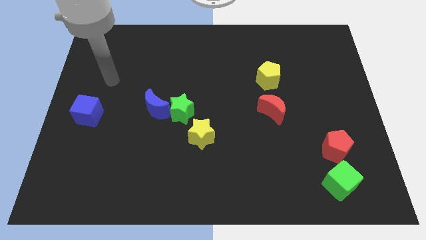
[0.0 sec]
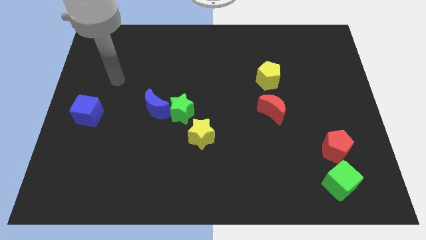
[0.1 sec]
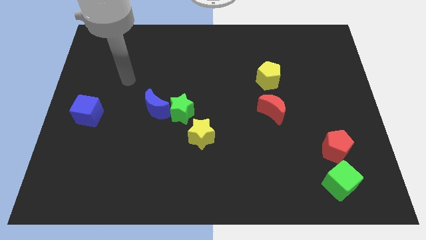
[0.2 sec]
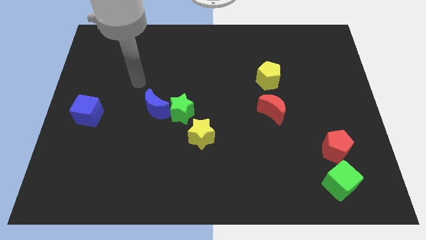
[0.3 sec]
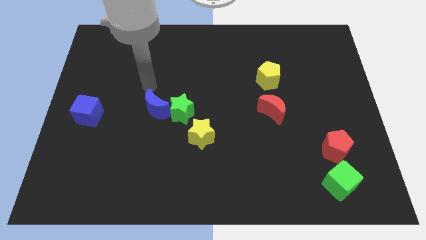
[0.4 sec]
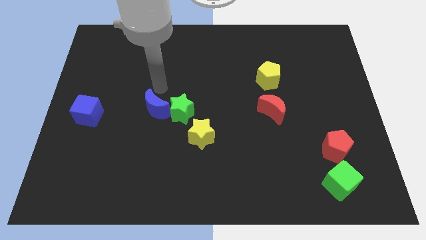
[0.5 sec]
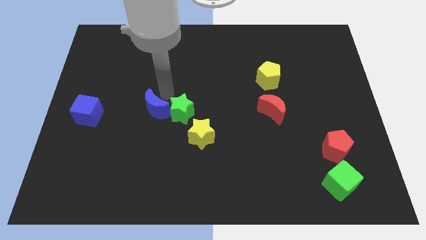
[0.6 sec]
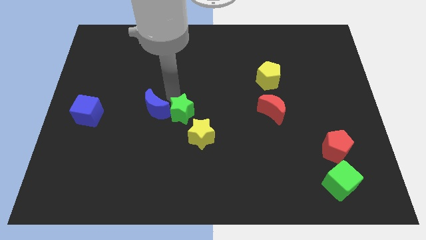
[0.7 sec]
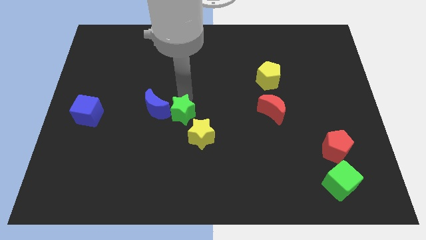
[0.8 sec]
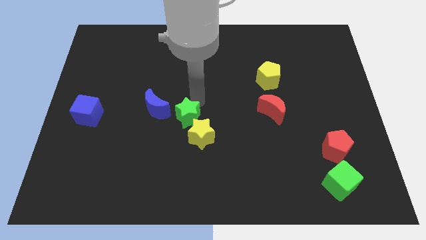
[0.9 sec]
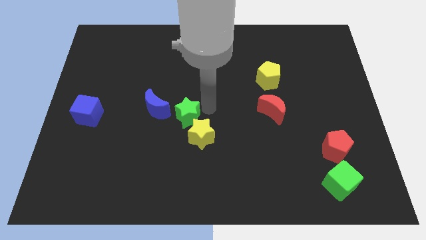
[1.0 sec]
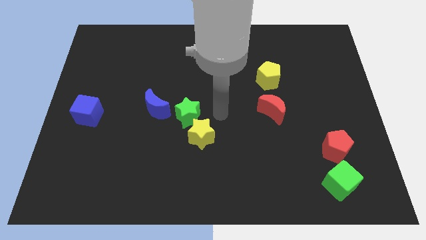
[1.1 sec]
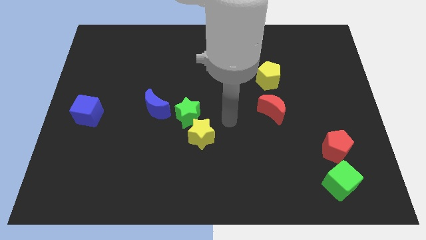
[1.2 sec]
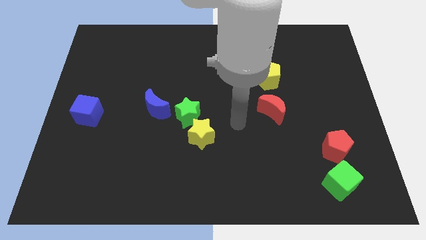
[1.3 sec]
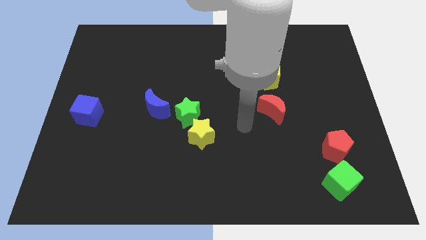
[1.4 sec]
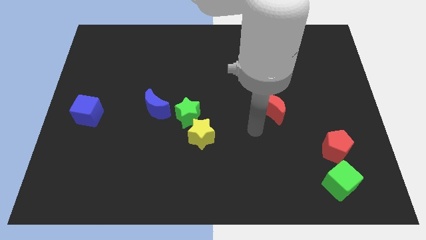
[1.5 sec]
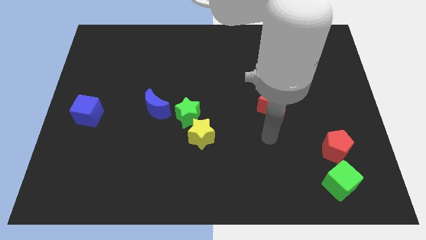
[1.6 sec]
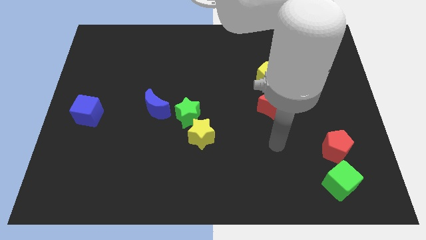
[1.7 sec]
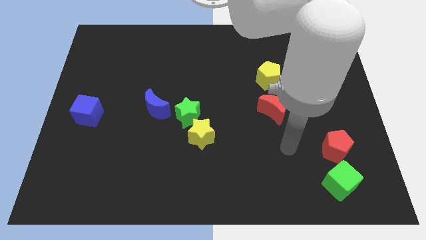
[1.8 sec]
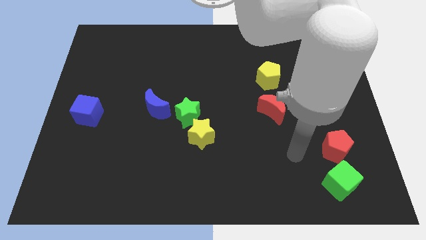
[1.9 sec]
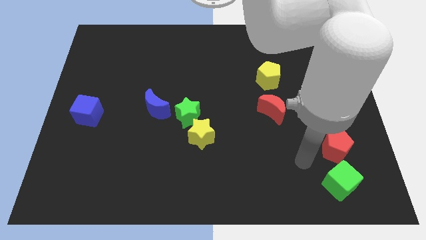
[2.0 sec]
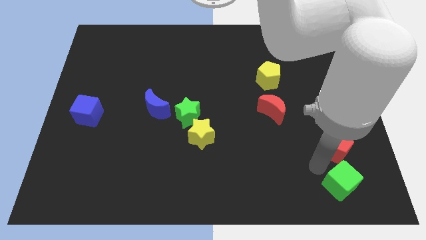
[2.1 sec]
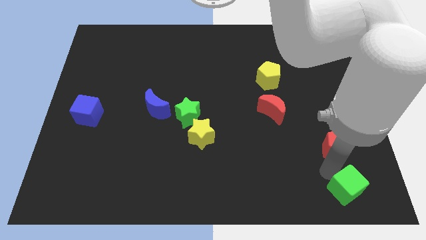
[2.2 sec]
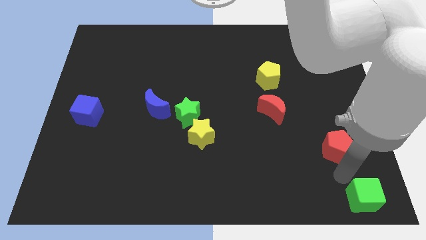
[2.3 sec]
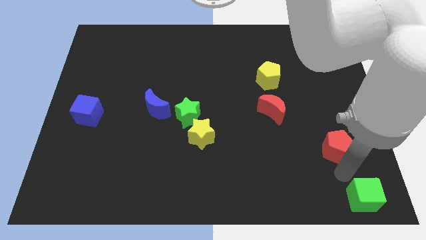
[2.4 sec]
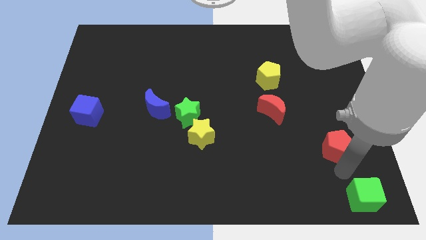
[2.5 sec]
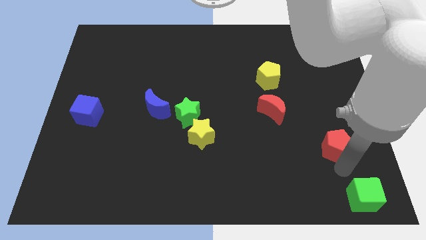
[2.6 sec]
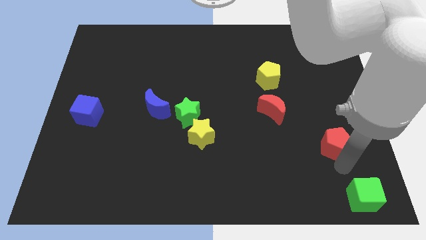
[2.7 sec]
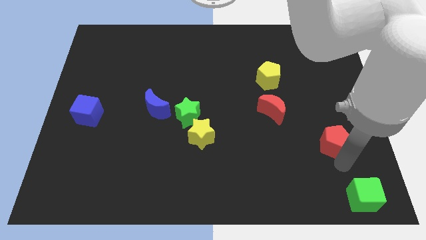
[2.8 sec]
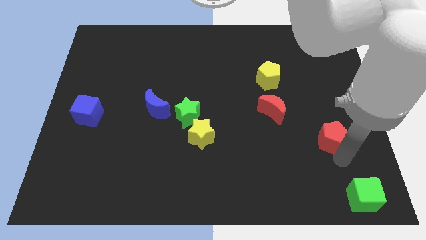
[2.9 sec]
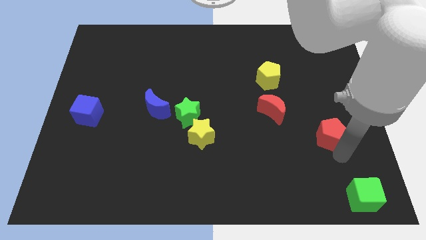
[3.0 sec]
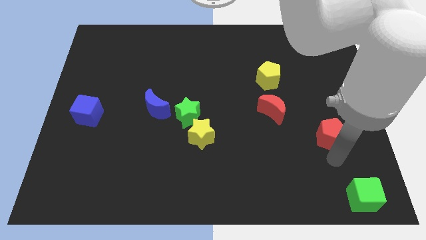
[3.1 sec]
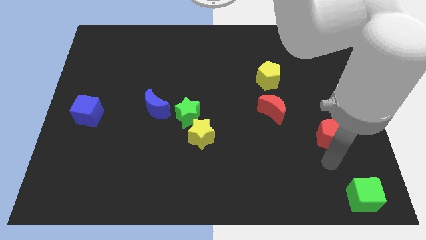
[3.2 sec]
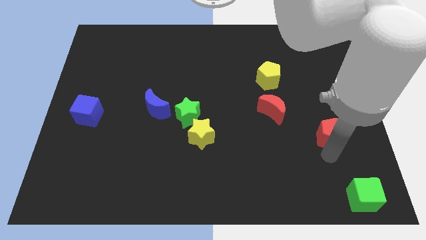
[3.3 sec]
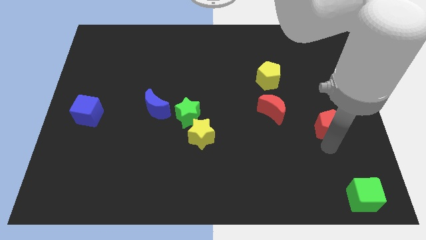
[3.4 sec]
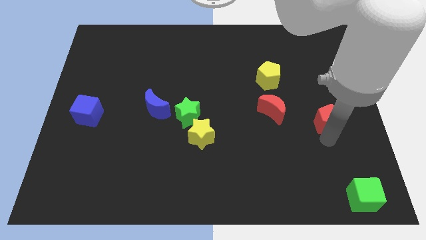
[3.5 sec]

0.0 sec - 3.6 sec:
push the red pentagon somewhat up

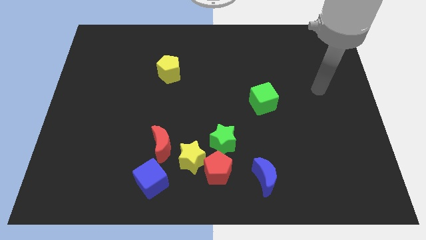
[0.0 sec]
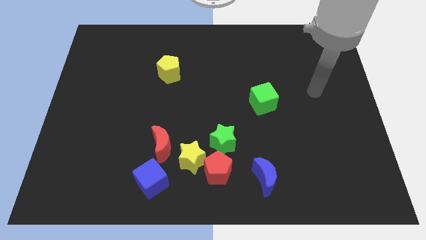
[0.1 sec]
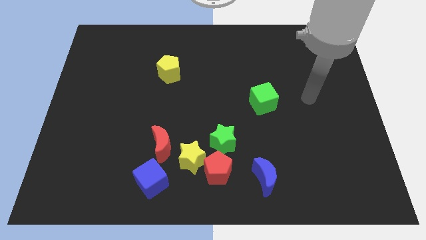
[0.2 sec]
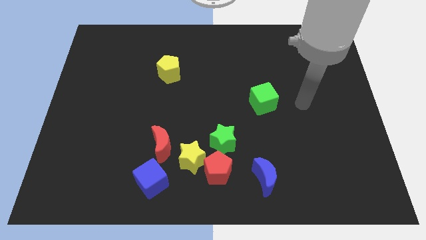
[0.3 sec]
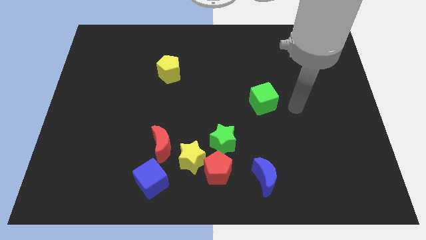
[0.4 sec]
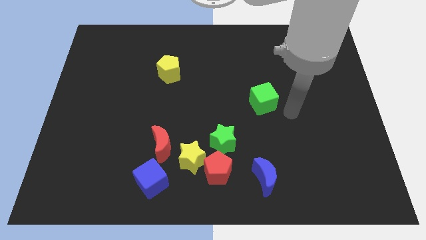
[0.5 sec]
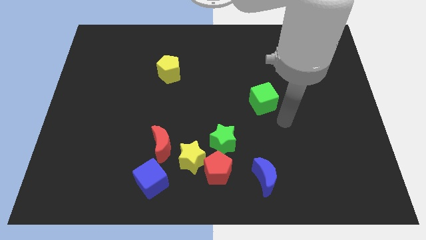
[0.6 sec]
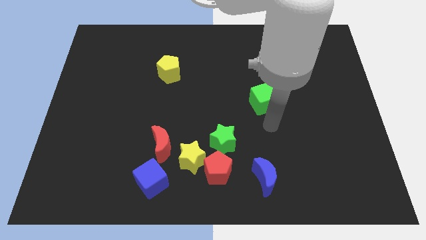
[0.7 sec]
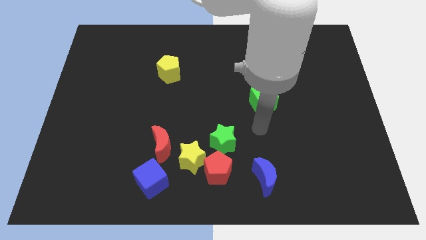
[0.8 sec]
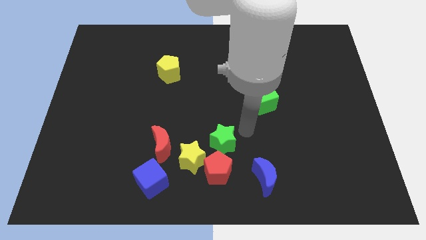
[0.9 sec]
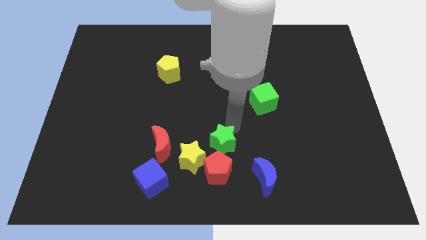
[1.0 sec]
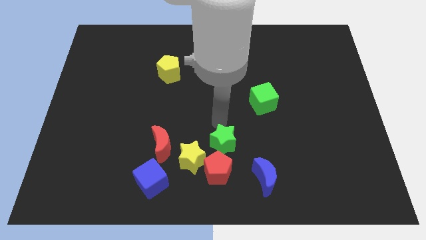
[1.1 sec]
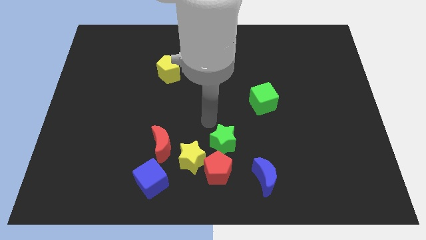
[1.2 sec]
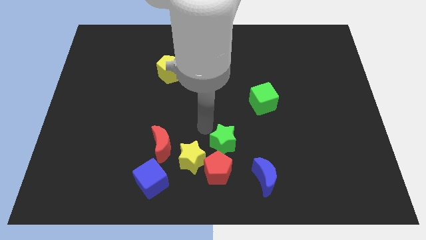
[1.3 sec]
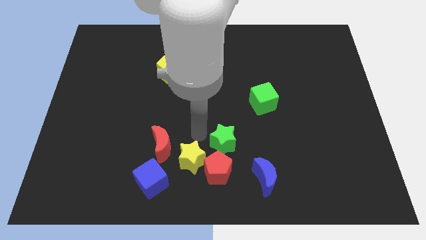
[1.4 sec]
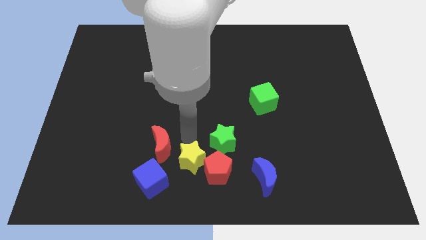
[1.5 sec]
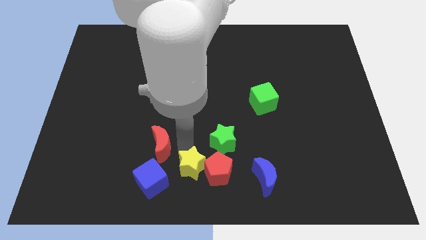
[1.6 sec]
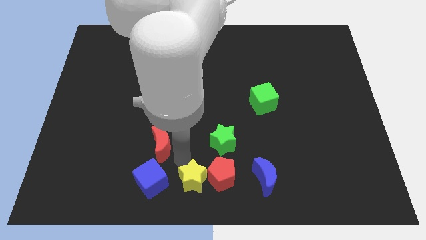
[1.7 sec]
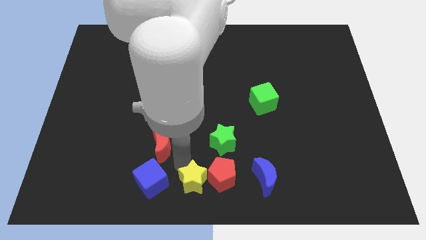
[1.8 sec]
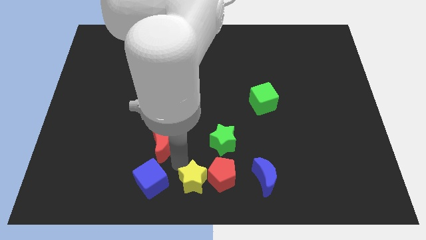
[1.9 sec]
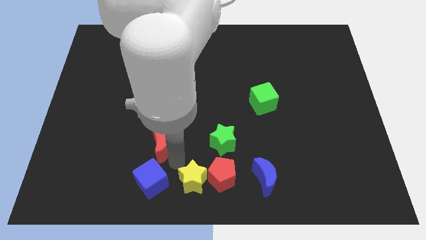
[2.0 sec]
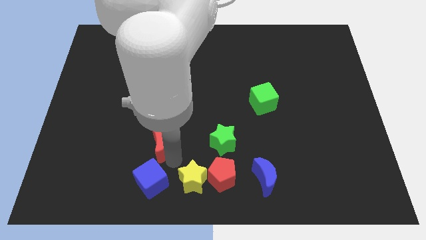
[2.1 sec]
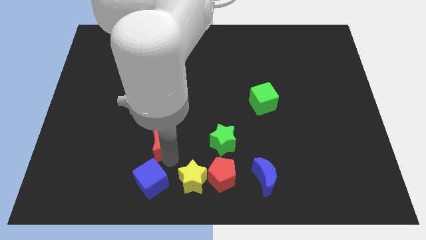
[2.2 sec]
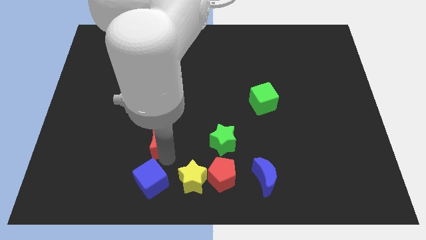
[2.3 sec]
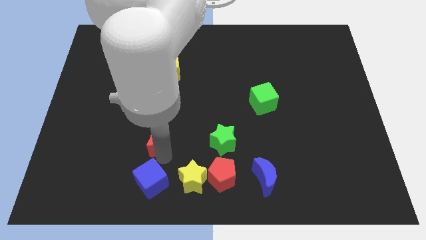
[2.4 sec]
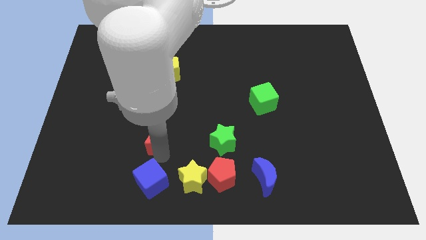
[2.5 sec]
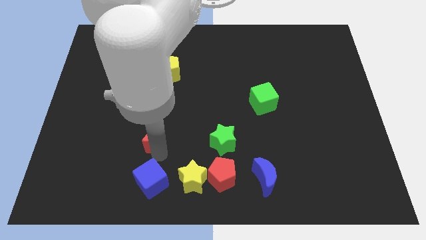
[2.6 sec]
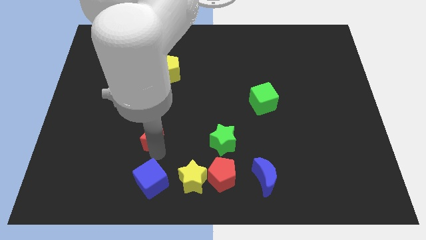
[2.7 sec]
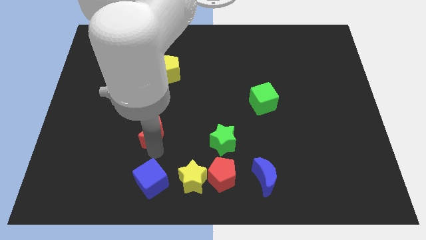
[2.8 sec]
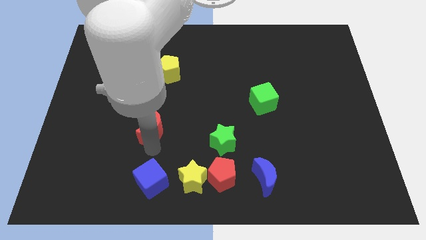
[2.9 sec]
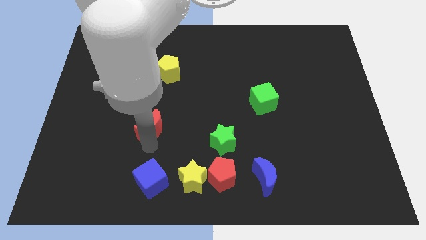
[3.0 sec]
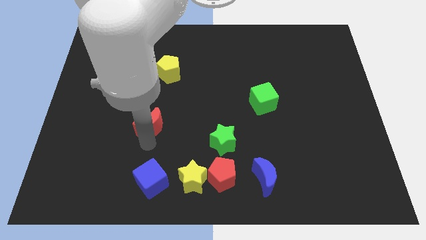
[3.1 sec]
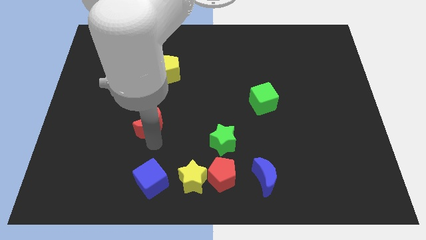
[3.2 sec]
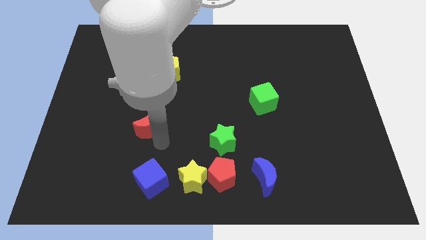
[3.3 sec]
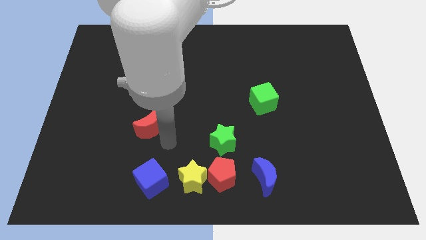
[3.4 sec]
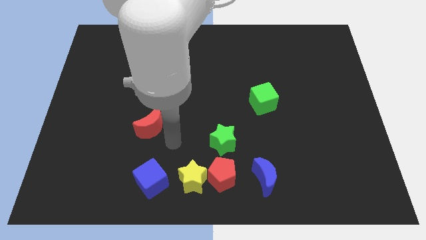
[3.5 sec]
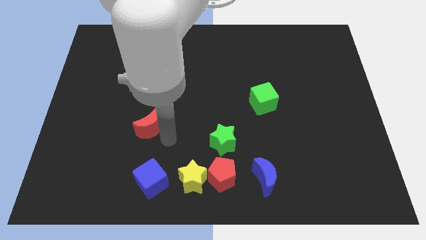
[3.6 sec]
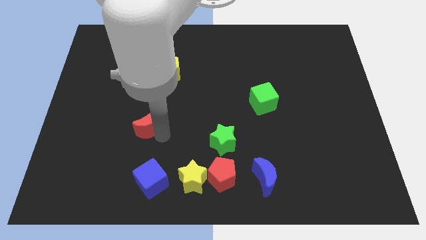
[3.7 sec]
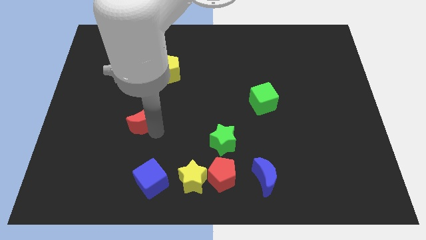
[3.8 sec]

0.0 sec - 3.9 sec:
slide the red moon upwards and then left slightly

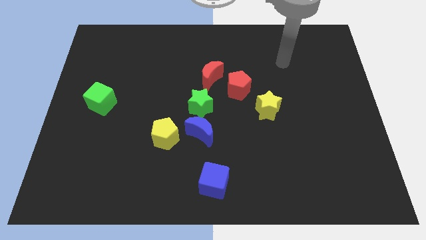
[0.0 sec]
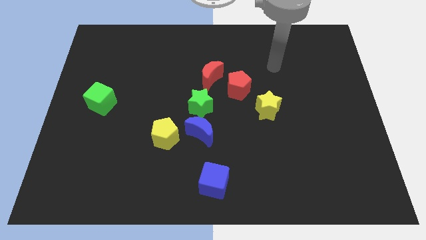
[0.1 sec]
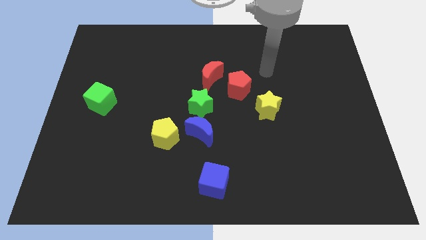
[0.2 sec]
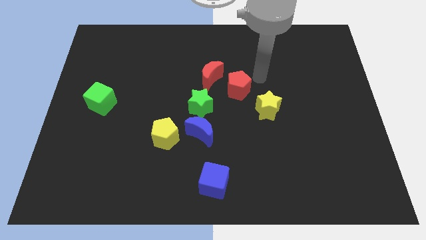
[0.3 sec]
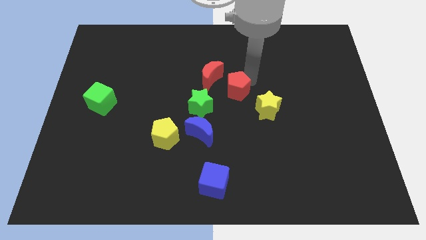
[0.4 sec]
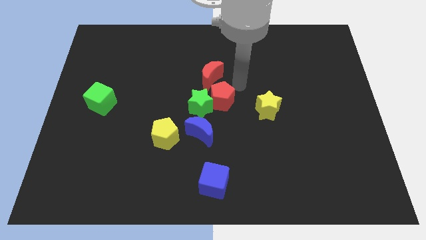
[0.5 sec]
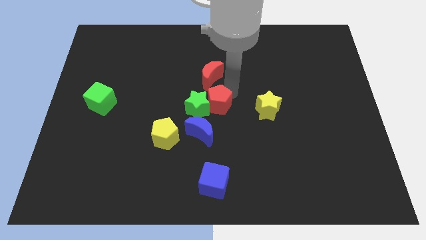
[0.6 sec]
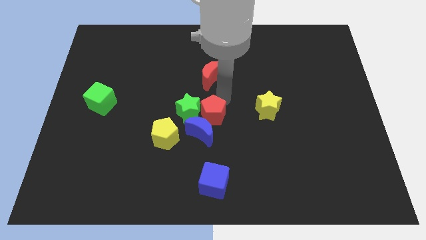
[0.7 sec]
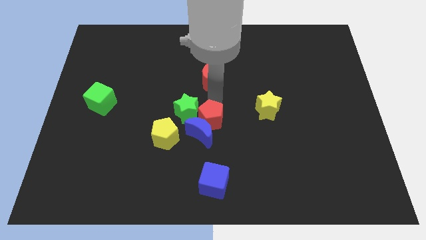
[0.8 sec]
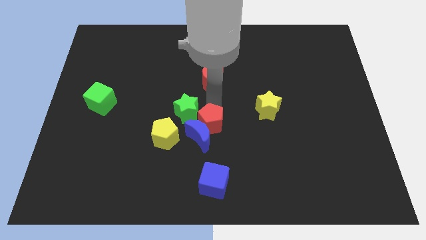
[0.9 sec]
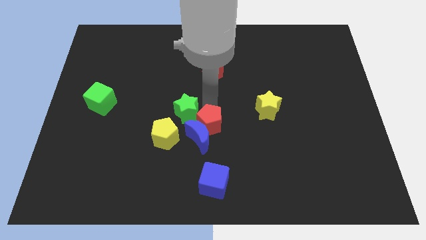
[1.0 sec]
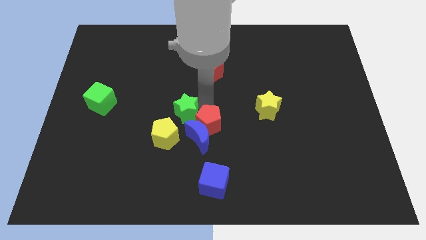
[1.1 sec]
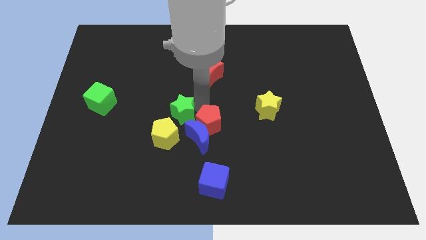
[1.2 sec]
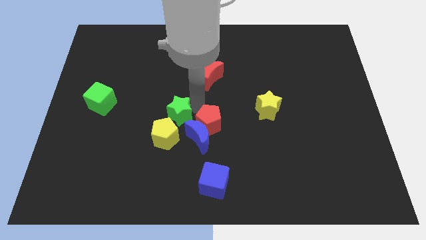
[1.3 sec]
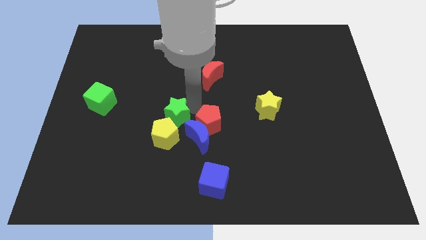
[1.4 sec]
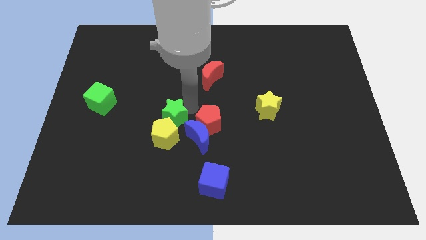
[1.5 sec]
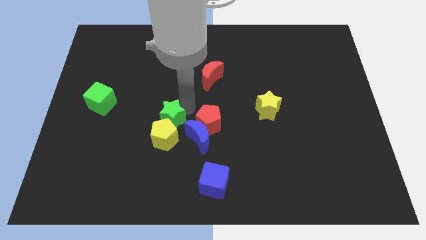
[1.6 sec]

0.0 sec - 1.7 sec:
slide the green star downwards and left diagonally a little
